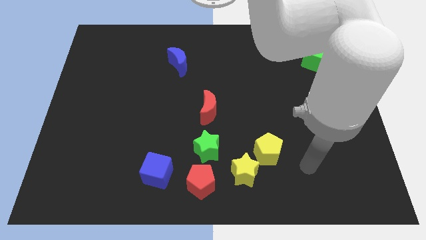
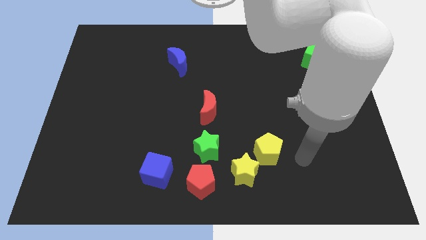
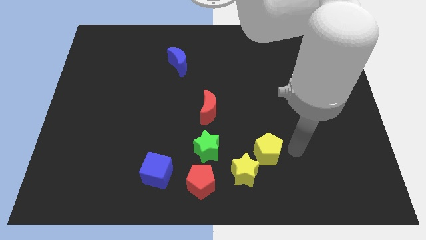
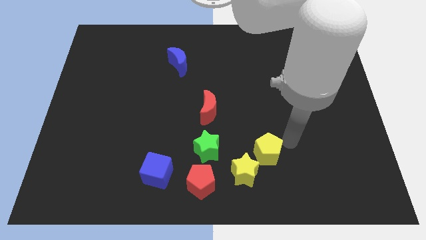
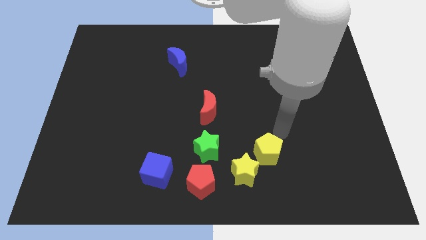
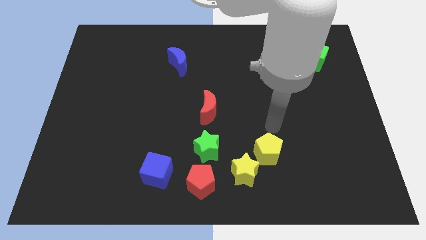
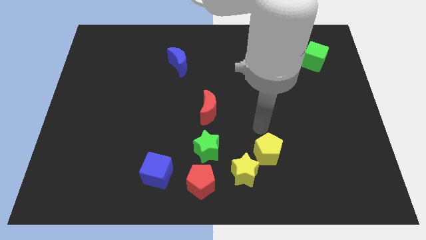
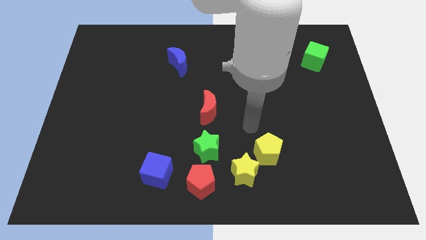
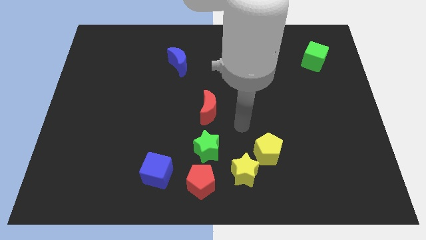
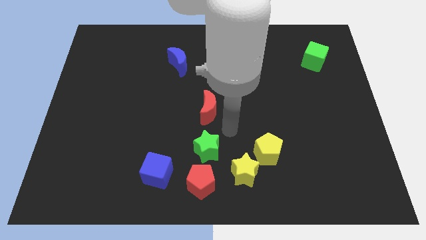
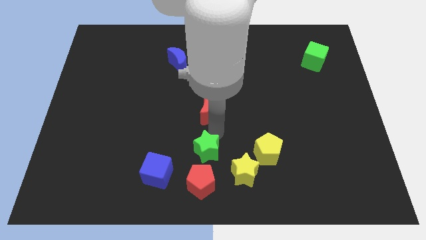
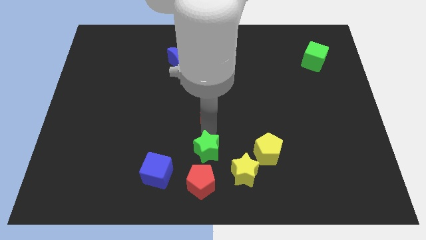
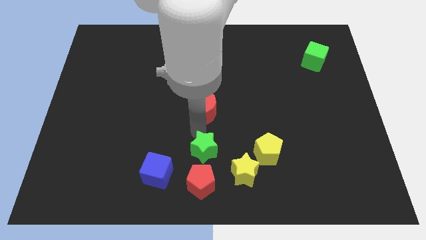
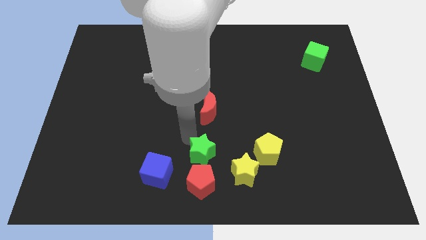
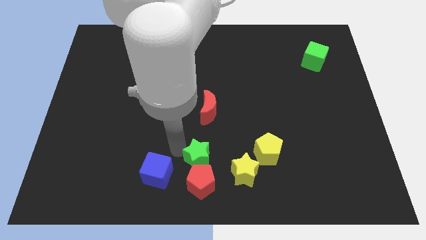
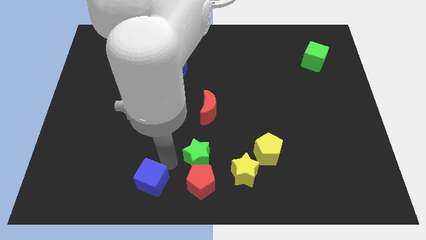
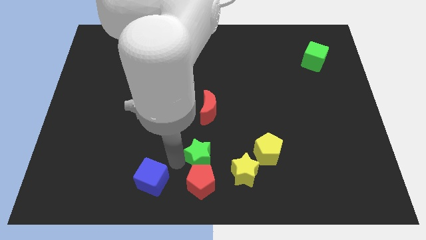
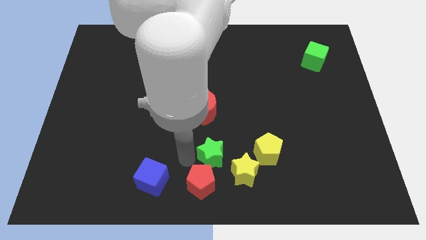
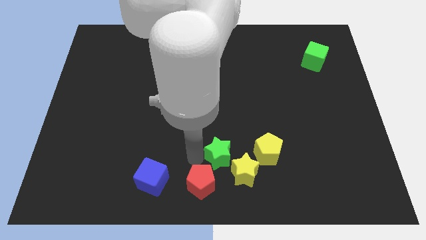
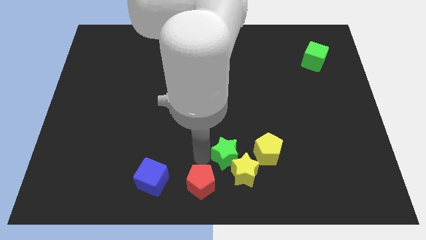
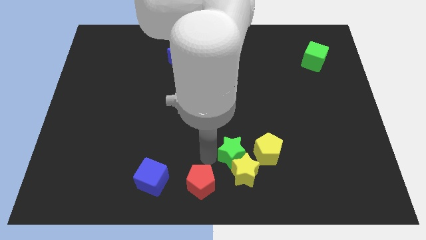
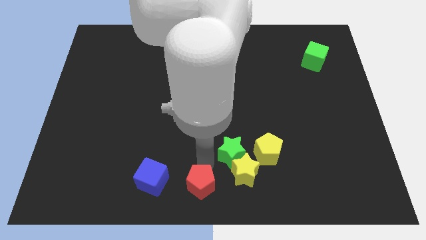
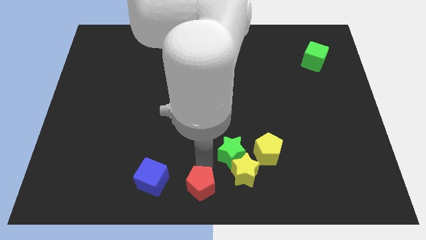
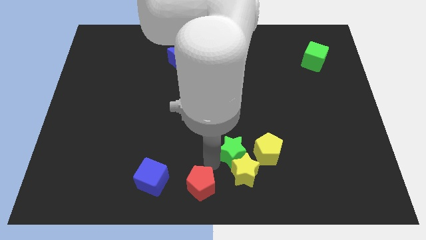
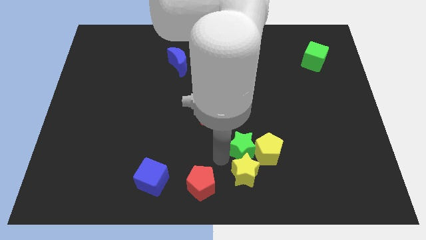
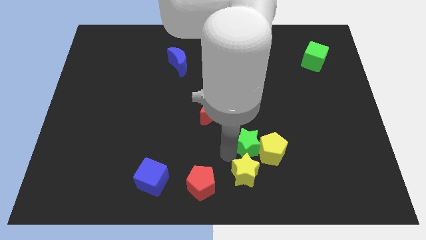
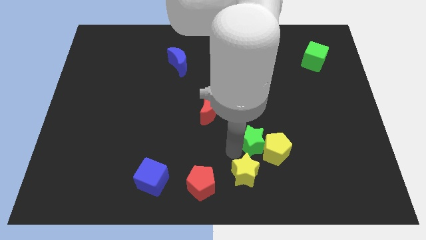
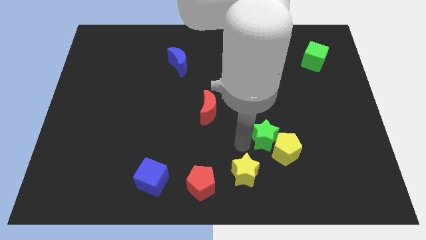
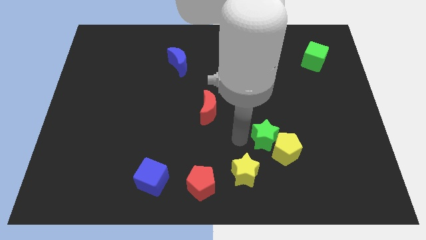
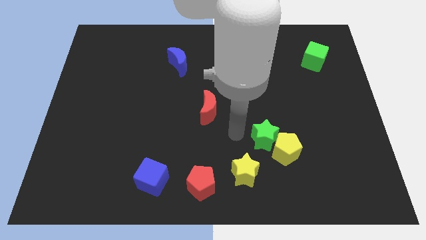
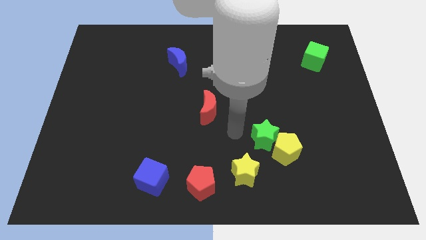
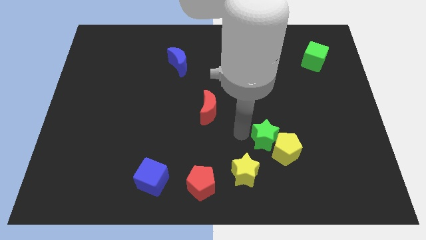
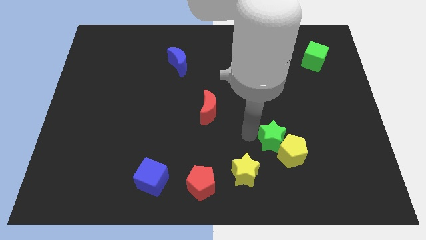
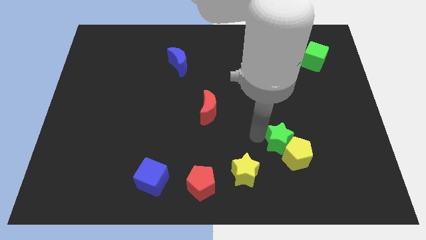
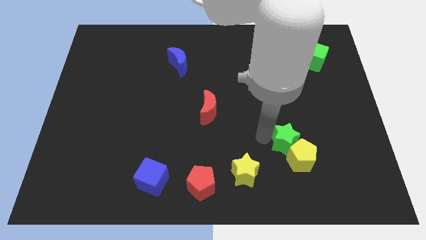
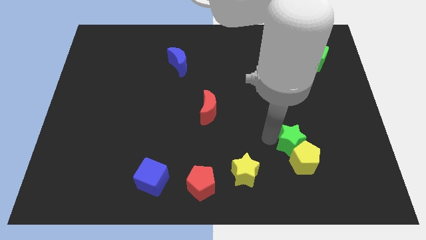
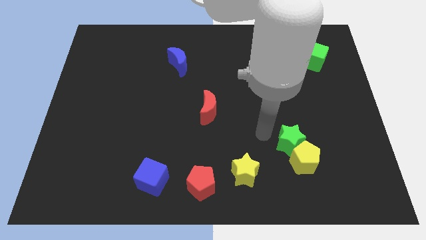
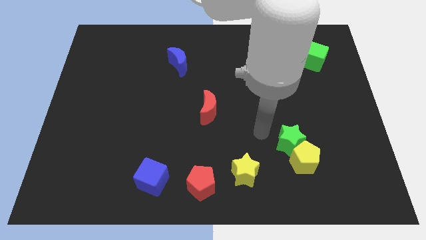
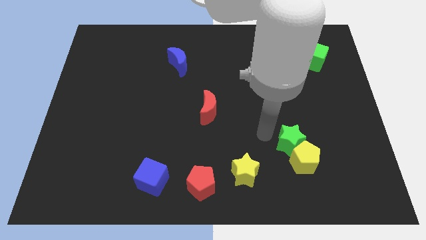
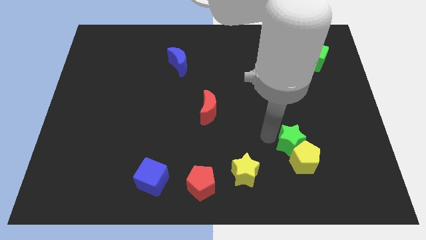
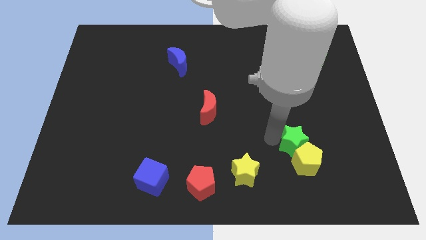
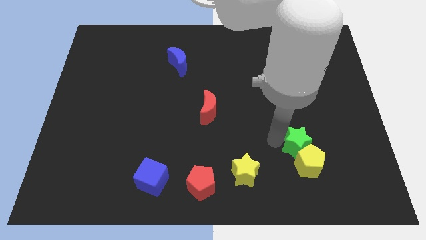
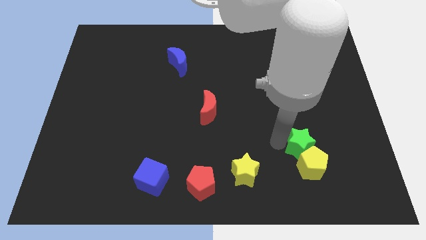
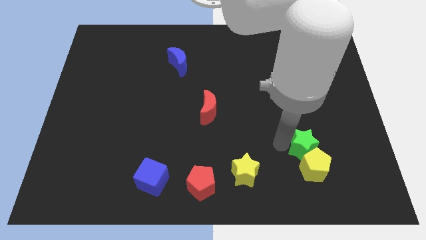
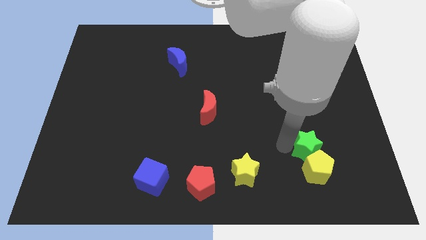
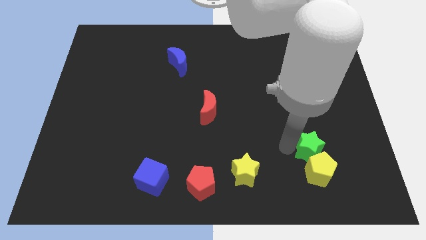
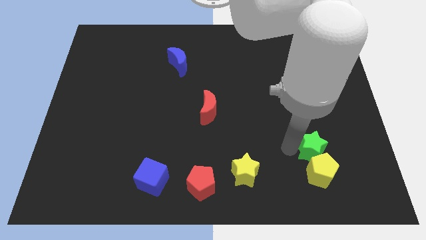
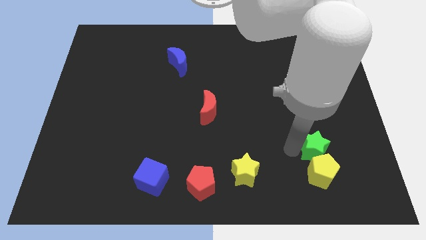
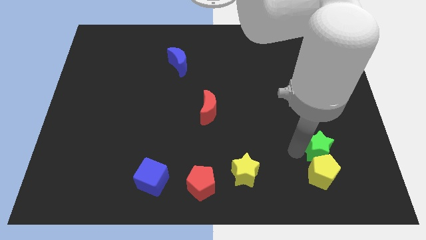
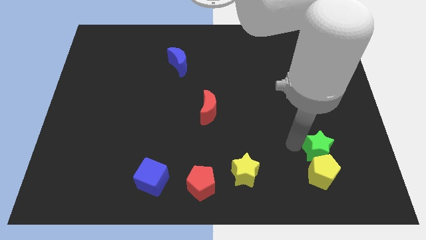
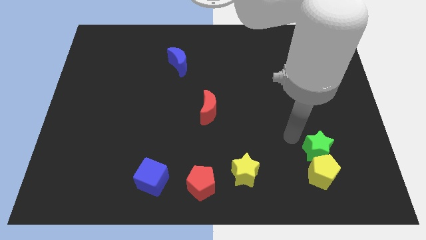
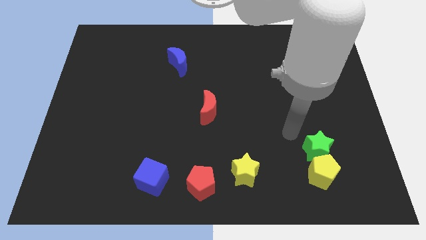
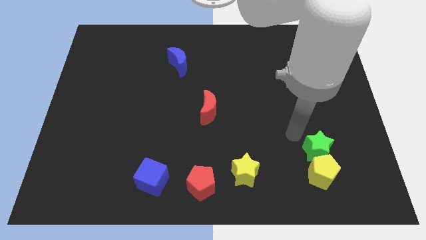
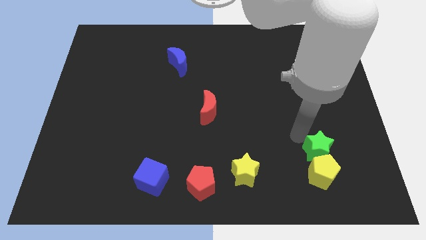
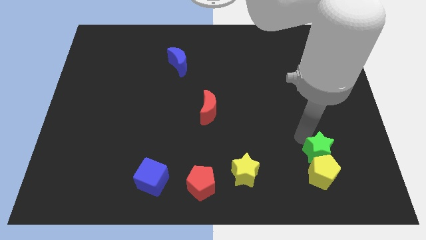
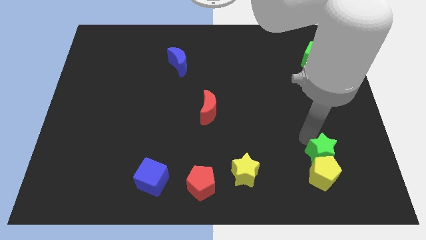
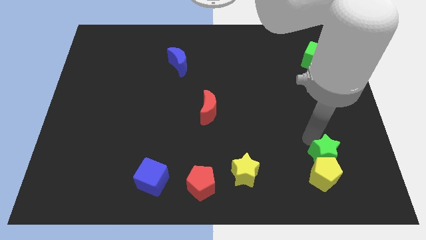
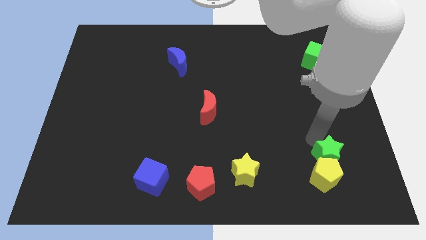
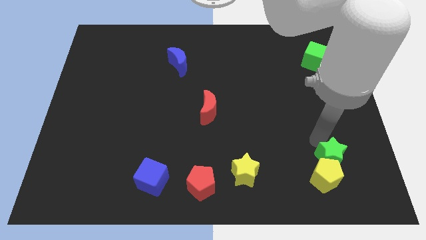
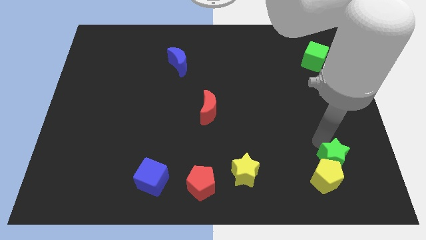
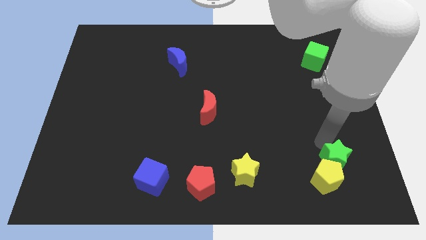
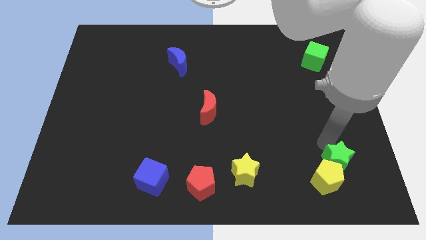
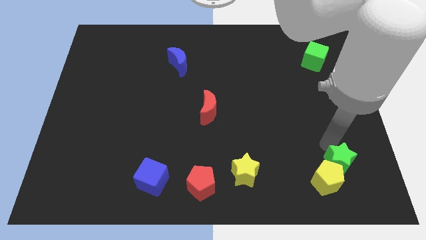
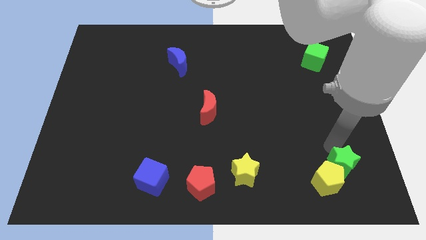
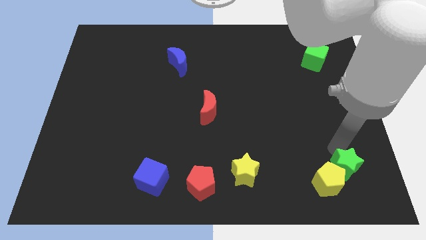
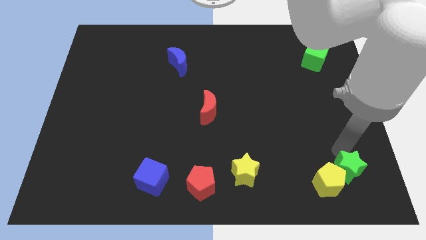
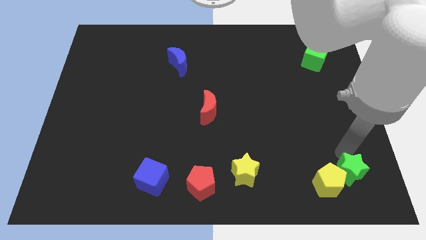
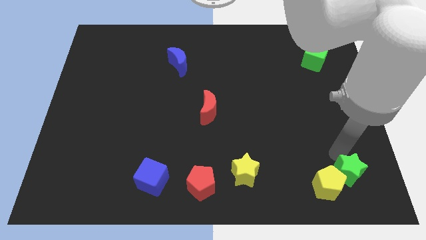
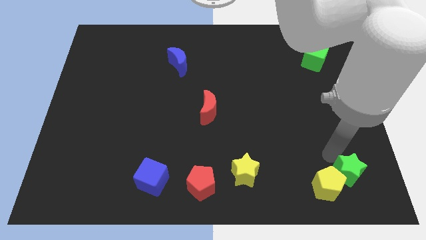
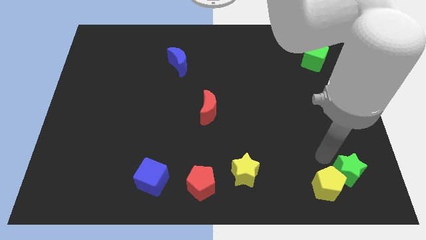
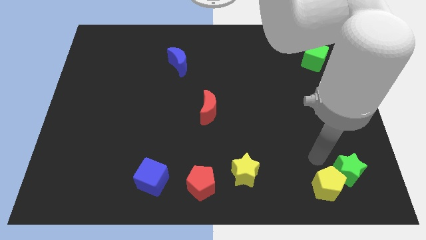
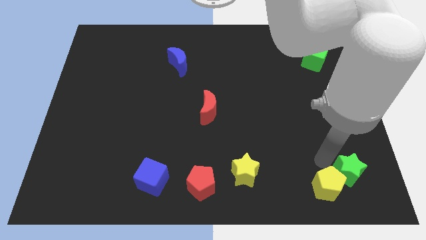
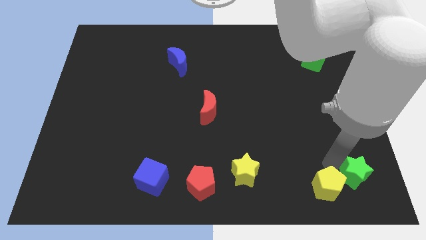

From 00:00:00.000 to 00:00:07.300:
move the green star to the bottom right corner
